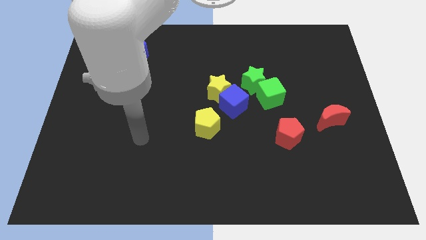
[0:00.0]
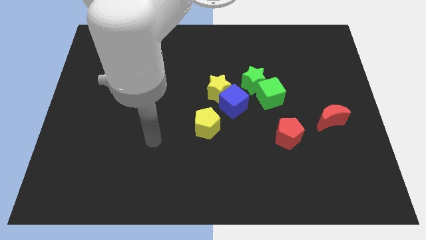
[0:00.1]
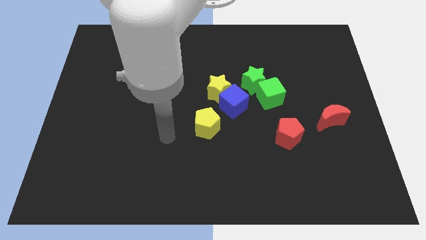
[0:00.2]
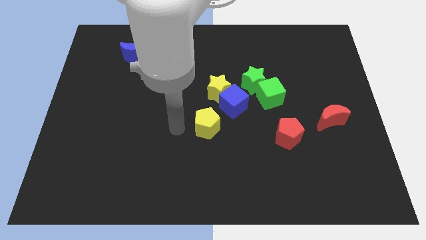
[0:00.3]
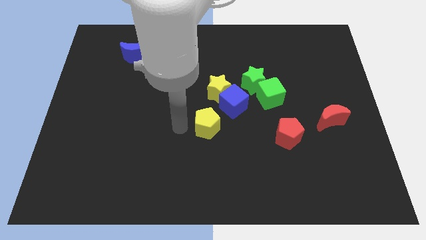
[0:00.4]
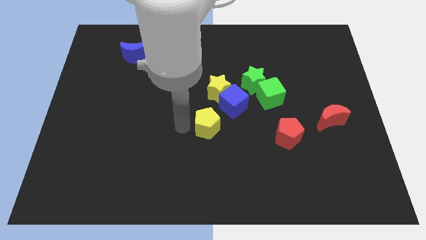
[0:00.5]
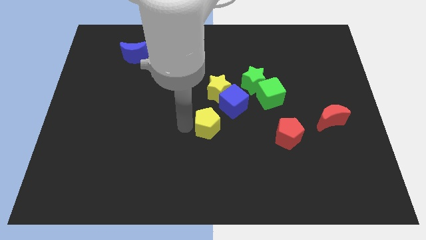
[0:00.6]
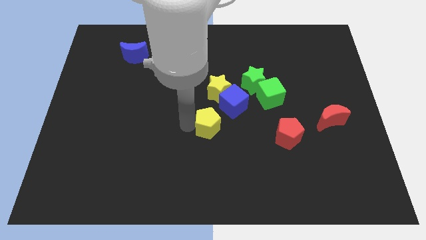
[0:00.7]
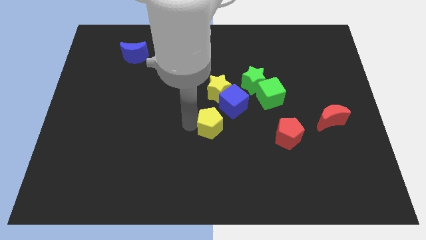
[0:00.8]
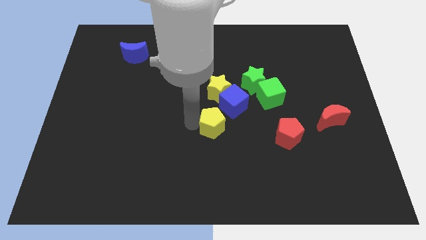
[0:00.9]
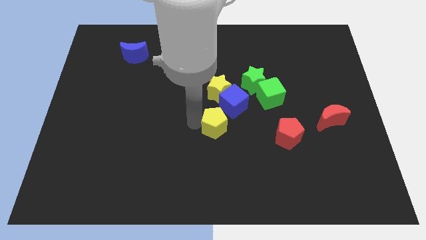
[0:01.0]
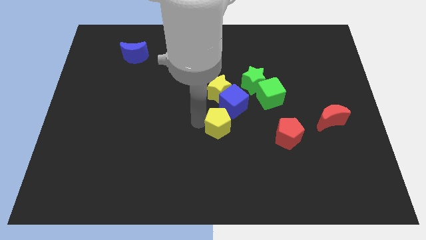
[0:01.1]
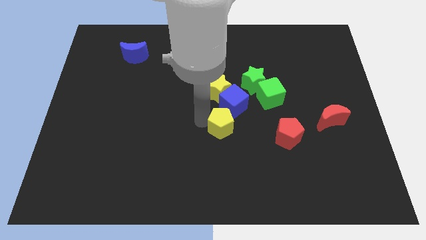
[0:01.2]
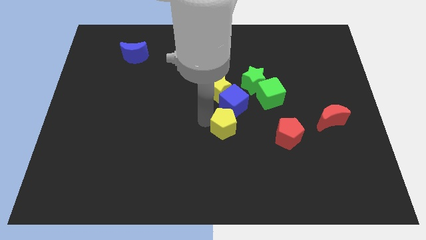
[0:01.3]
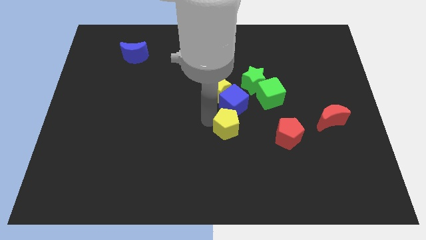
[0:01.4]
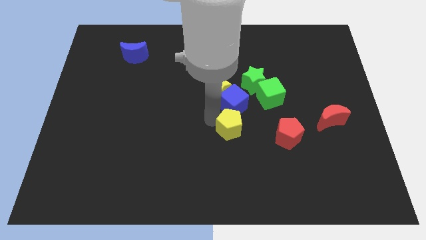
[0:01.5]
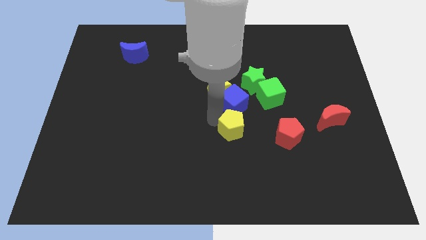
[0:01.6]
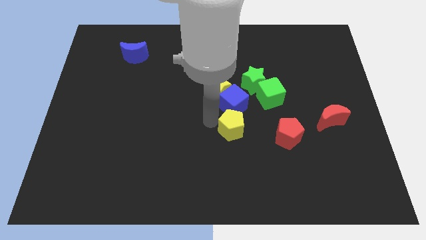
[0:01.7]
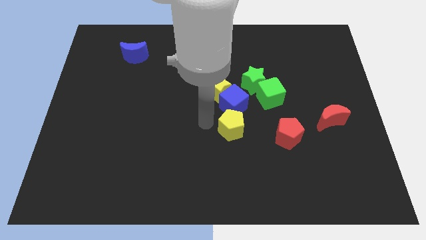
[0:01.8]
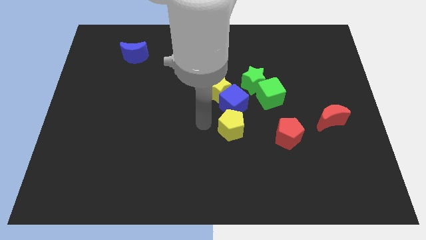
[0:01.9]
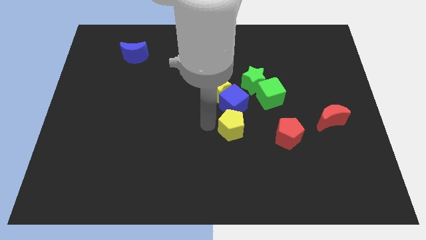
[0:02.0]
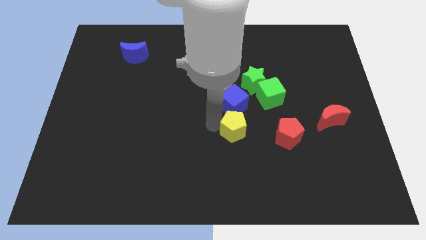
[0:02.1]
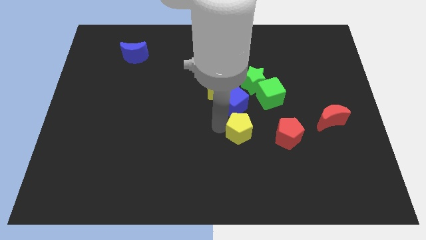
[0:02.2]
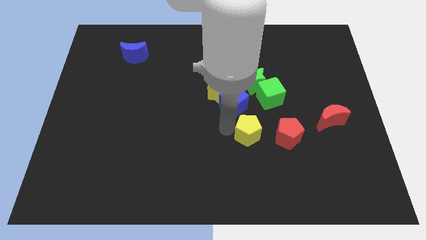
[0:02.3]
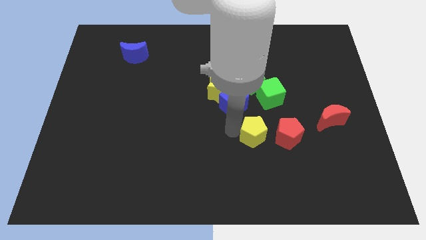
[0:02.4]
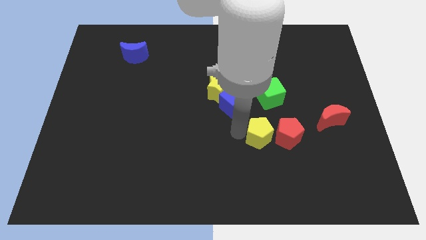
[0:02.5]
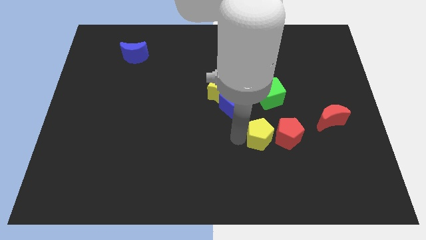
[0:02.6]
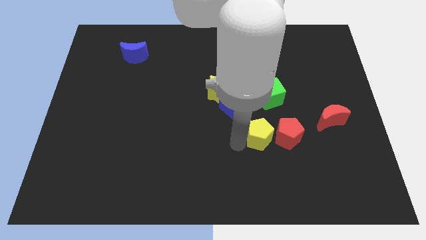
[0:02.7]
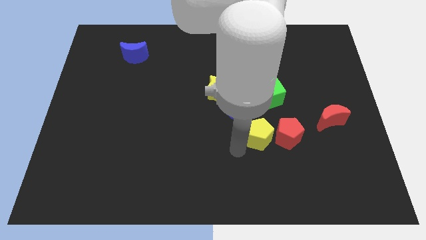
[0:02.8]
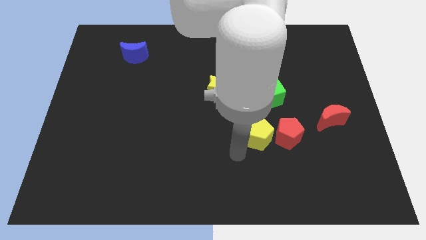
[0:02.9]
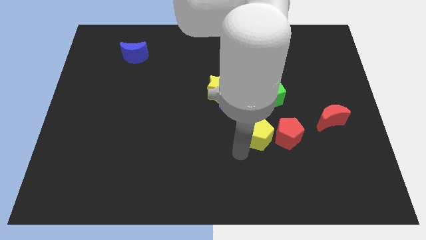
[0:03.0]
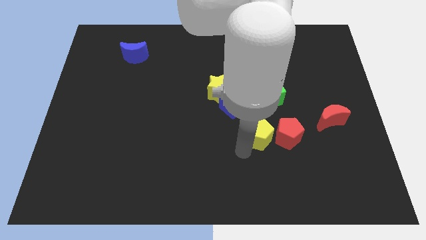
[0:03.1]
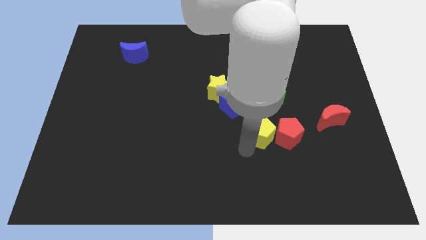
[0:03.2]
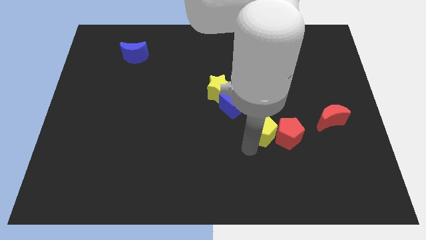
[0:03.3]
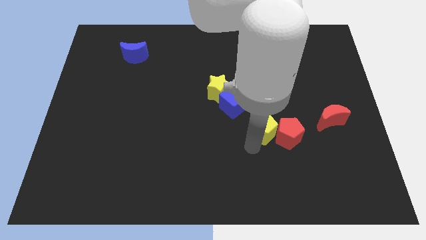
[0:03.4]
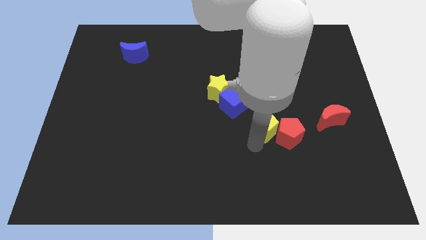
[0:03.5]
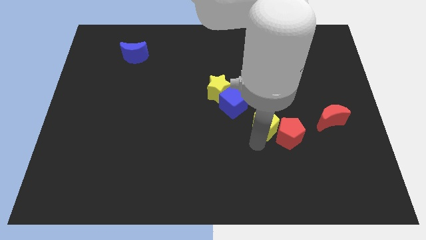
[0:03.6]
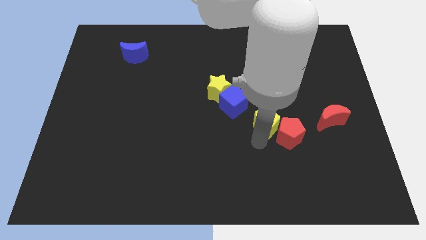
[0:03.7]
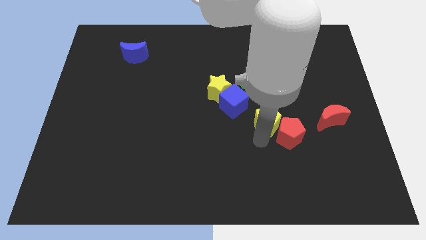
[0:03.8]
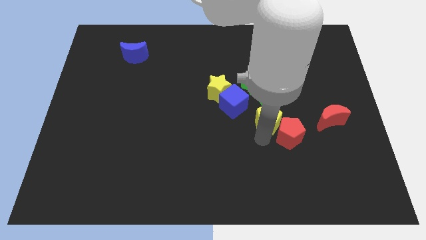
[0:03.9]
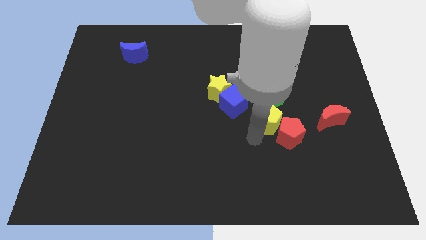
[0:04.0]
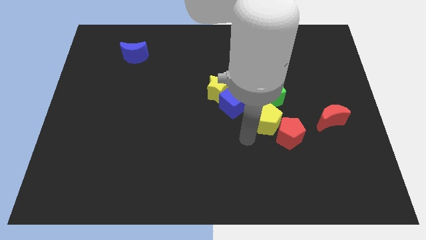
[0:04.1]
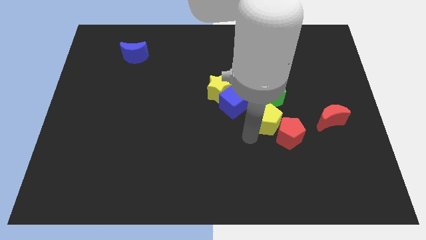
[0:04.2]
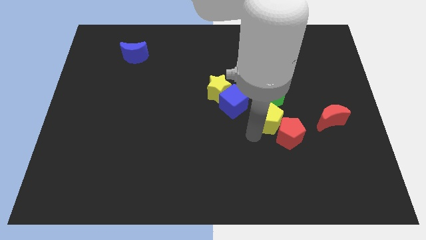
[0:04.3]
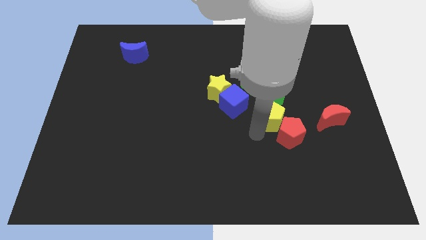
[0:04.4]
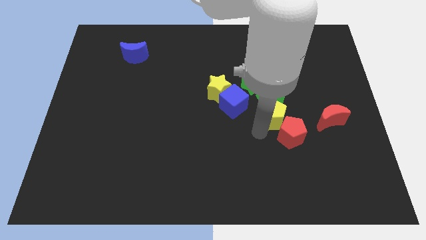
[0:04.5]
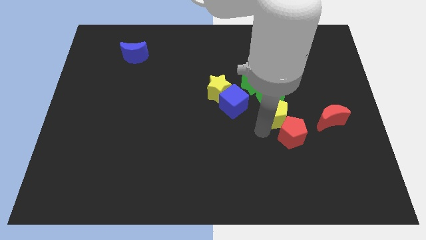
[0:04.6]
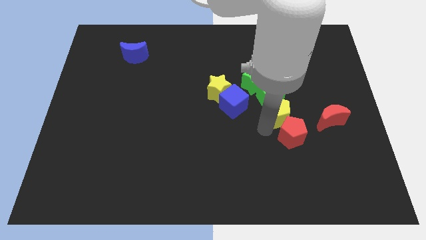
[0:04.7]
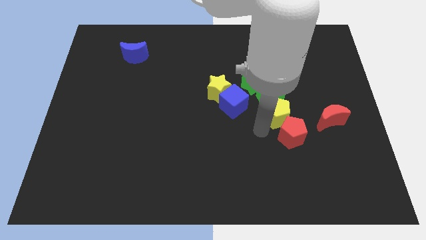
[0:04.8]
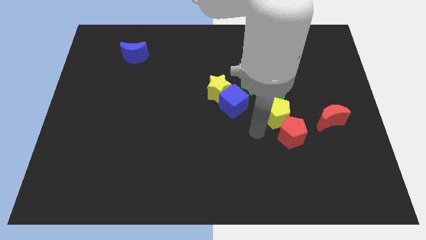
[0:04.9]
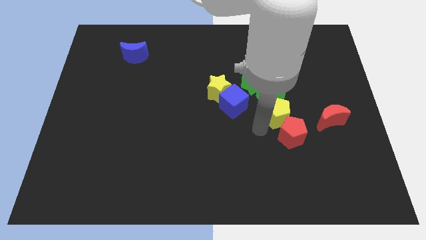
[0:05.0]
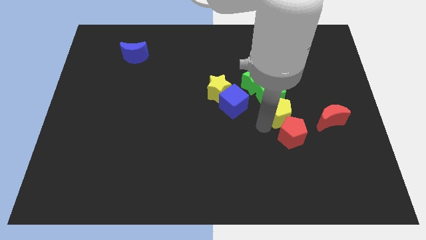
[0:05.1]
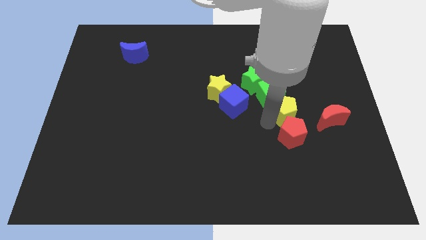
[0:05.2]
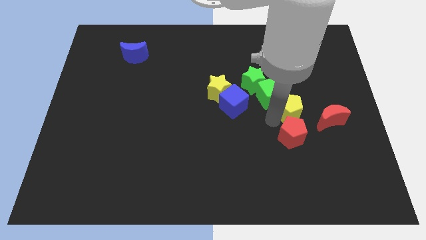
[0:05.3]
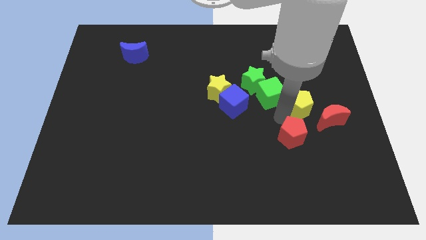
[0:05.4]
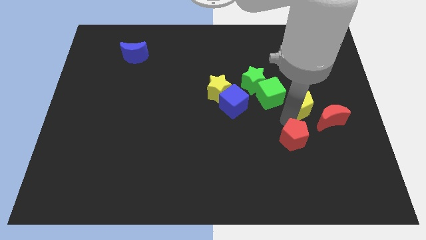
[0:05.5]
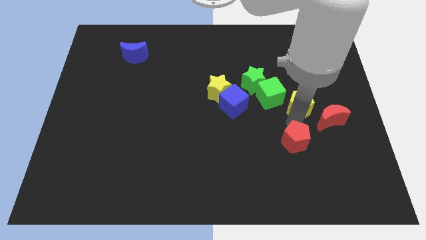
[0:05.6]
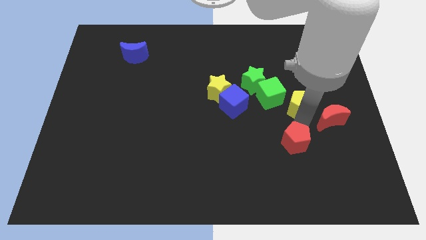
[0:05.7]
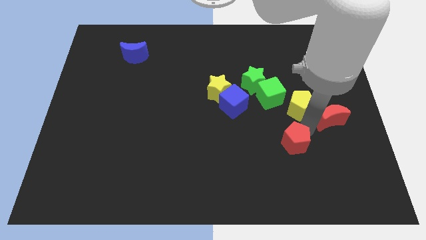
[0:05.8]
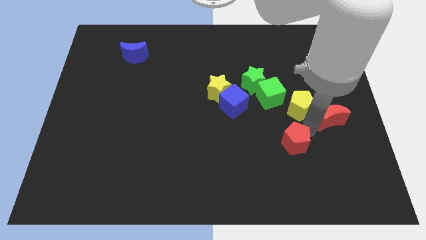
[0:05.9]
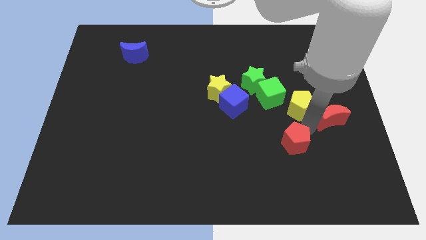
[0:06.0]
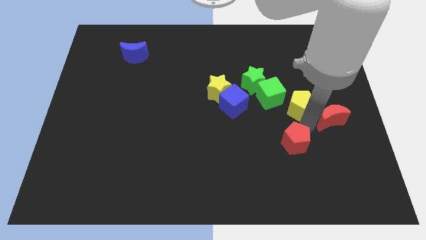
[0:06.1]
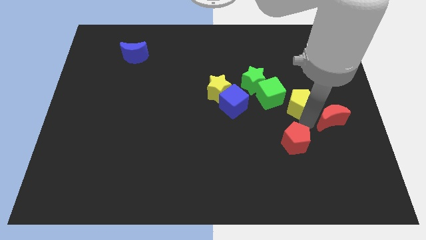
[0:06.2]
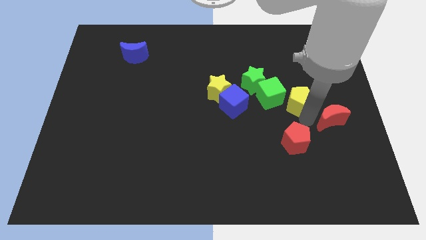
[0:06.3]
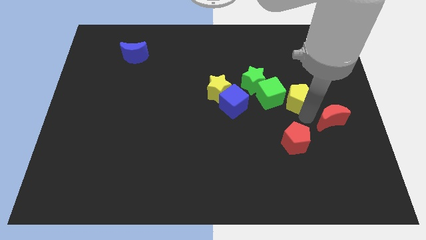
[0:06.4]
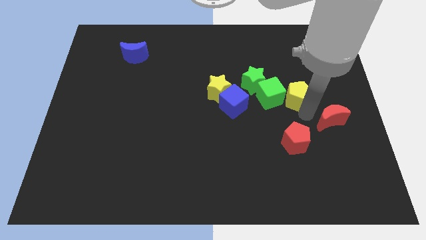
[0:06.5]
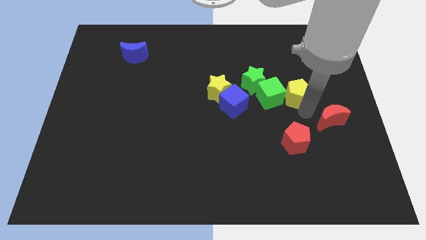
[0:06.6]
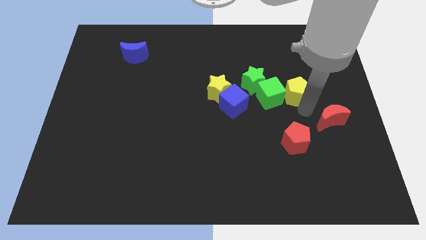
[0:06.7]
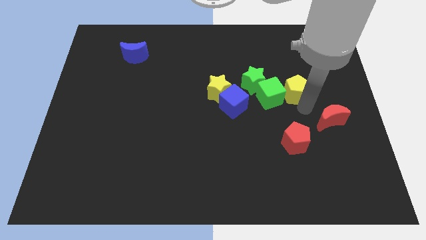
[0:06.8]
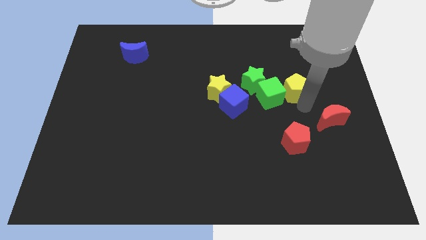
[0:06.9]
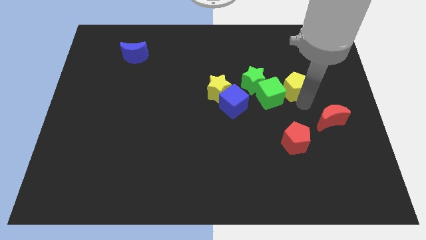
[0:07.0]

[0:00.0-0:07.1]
push the yellow pentagon up and to the right

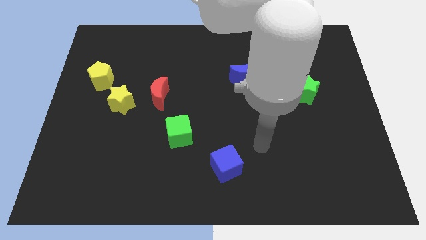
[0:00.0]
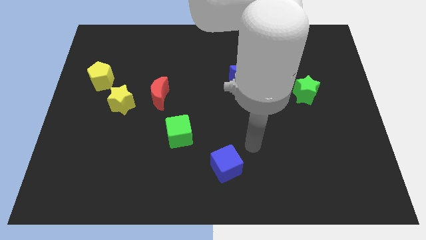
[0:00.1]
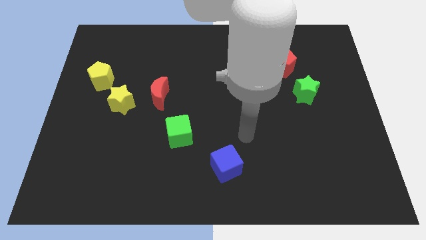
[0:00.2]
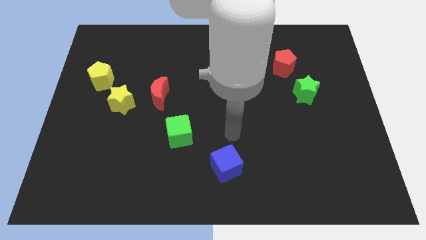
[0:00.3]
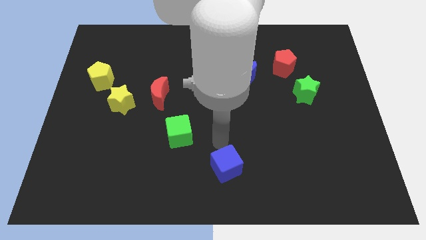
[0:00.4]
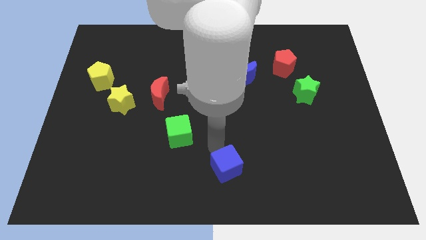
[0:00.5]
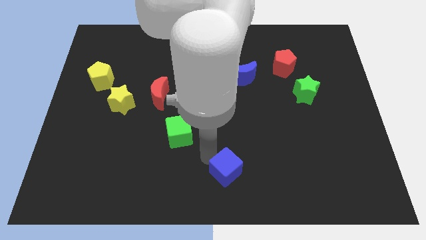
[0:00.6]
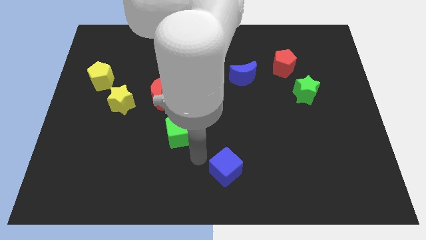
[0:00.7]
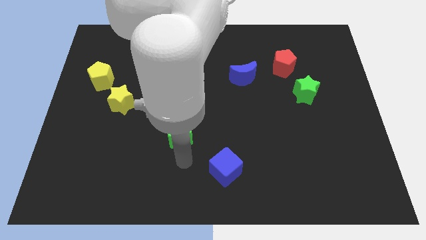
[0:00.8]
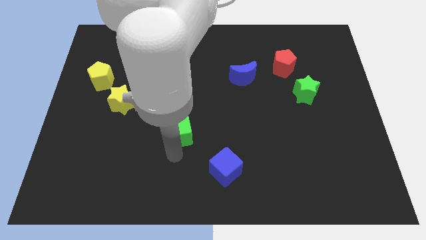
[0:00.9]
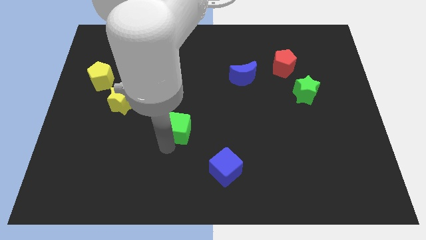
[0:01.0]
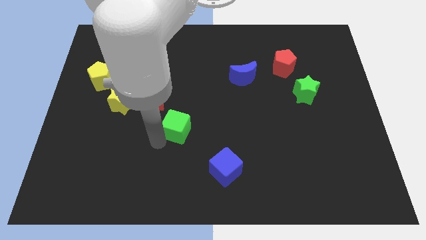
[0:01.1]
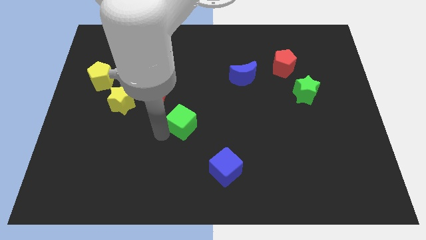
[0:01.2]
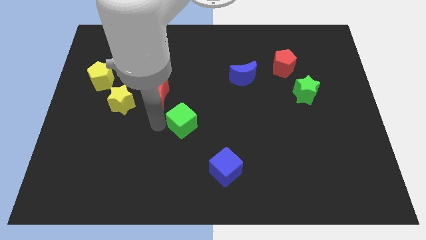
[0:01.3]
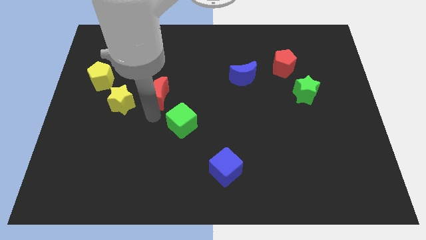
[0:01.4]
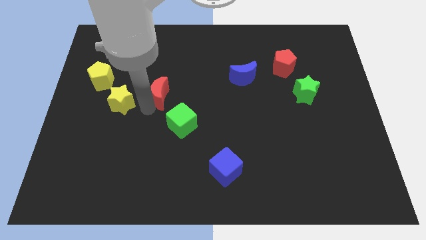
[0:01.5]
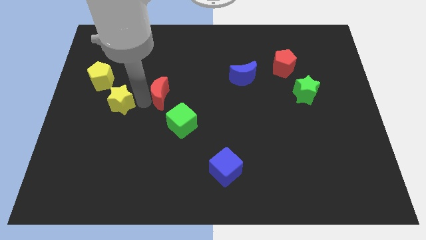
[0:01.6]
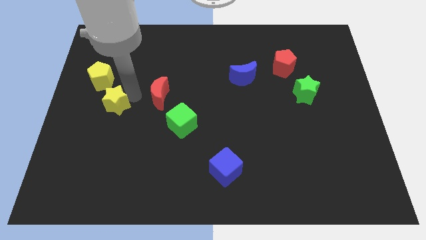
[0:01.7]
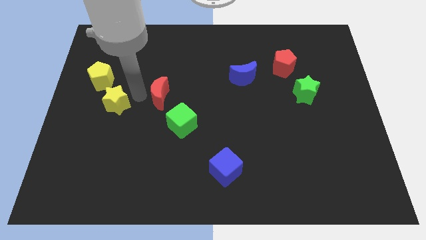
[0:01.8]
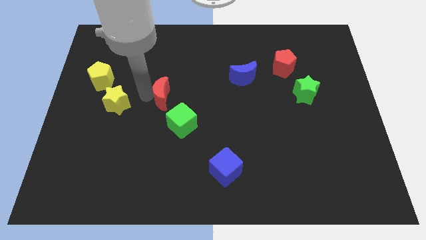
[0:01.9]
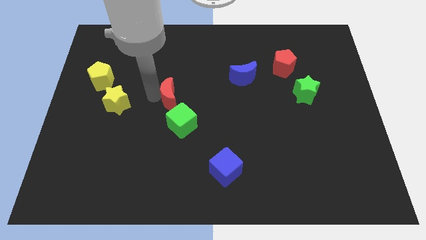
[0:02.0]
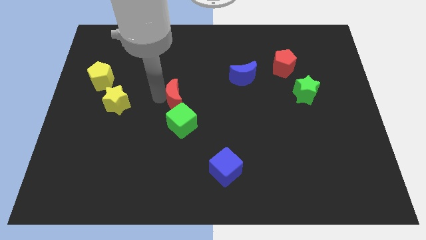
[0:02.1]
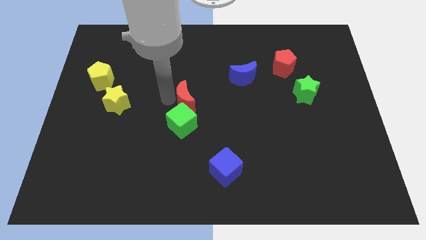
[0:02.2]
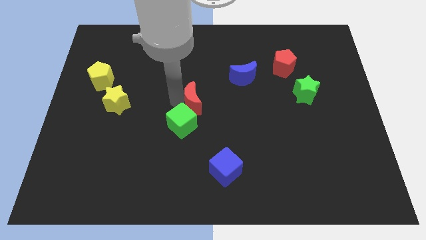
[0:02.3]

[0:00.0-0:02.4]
push the red moon to the right somewhat
